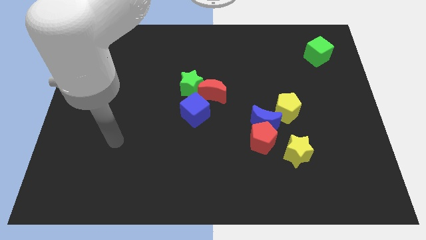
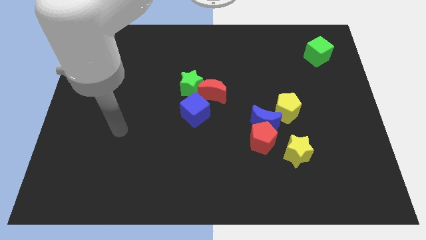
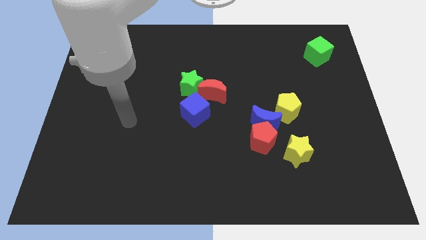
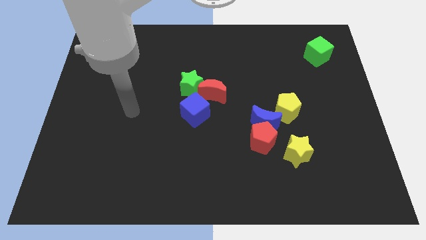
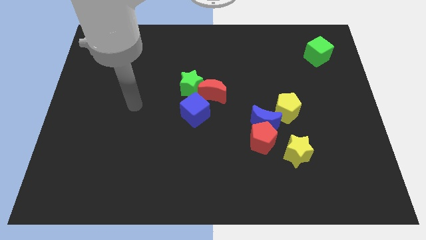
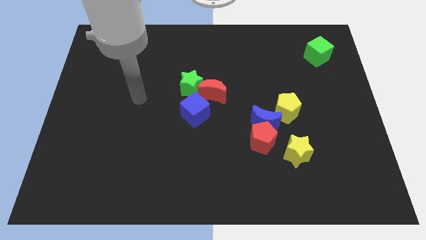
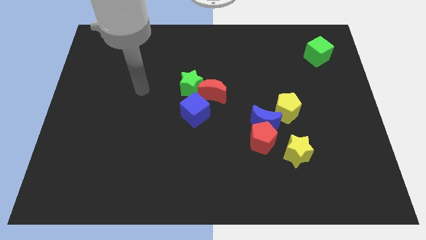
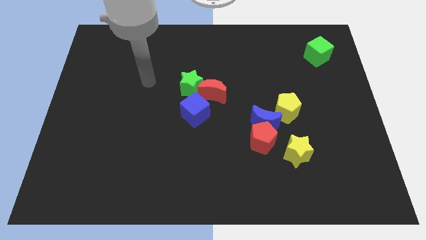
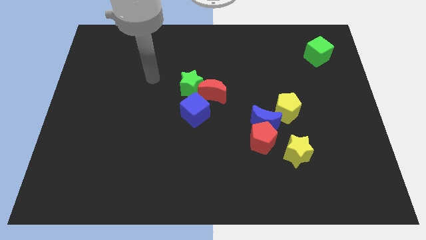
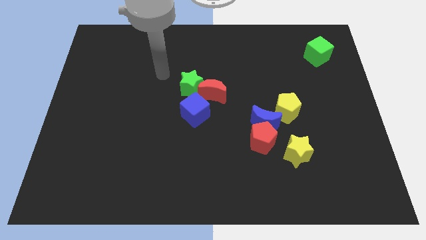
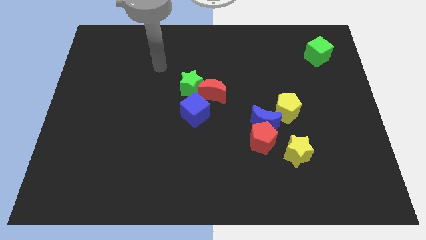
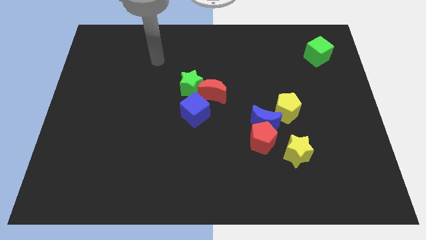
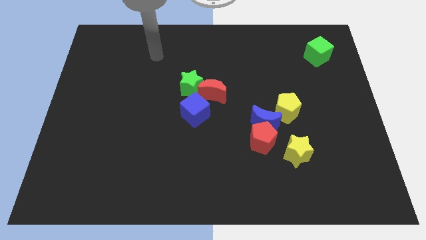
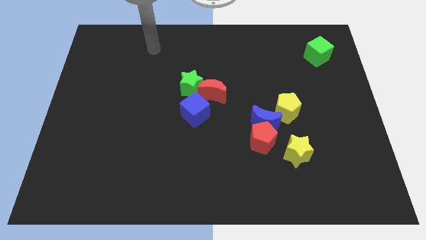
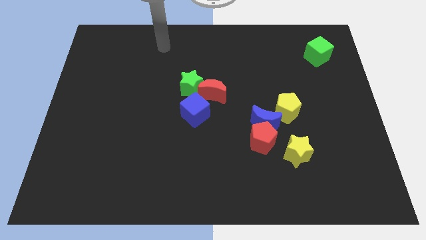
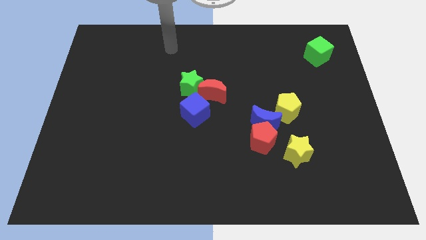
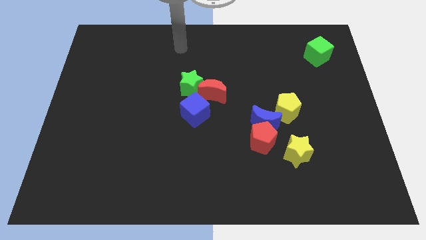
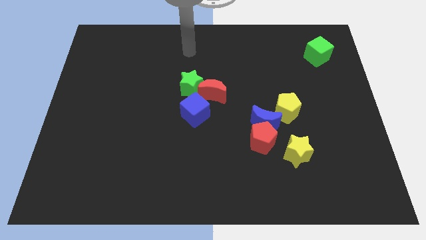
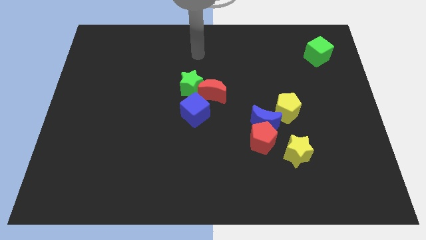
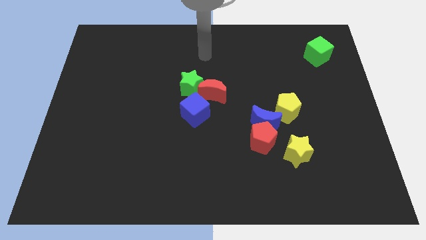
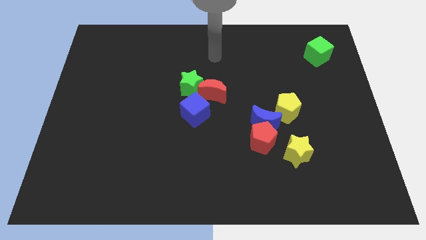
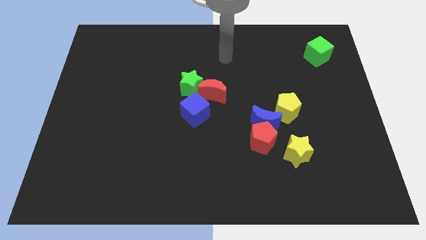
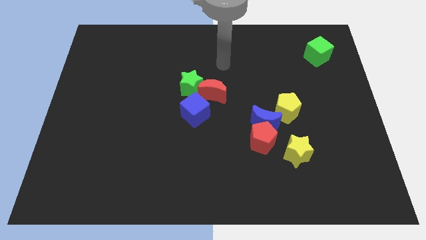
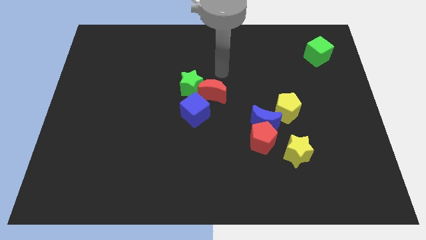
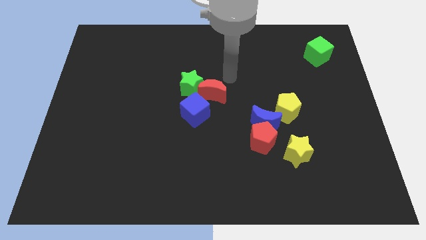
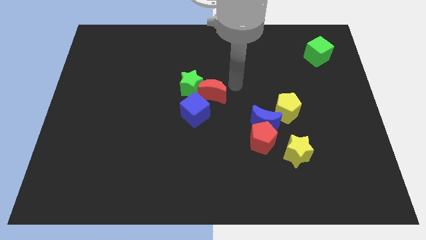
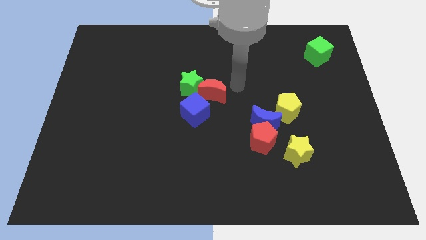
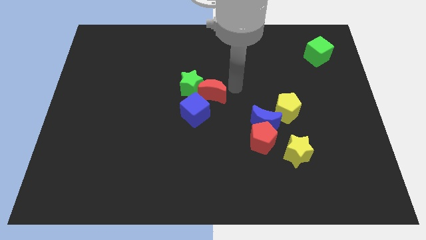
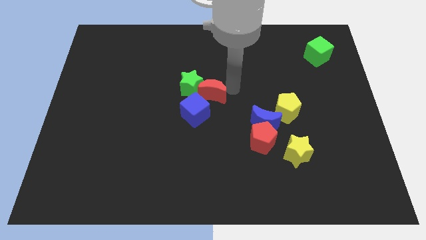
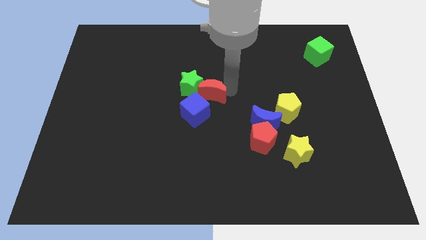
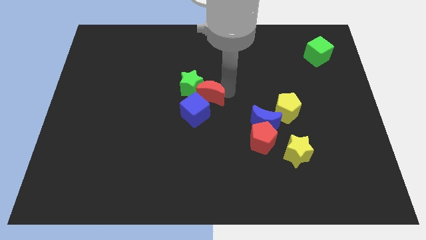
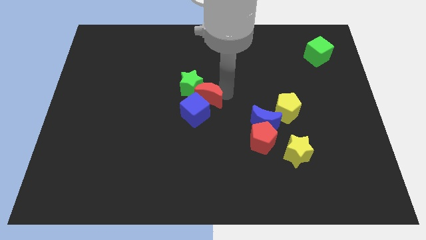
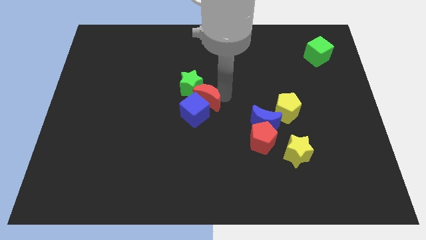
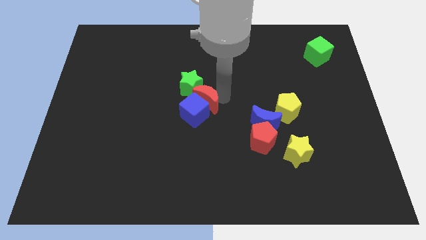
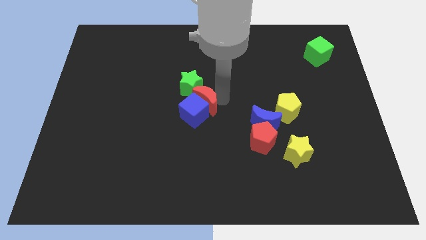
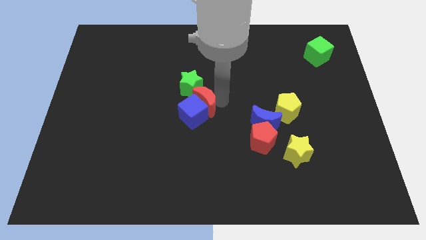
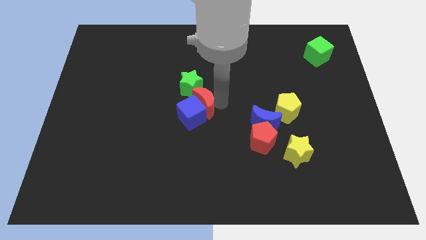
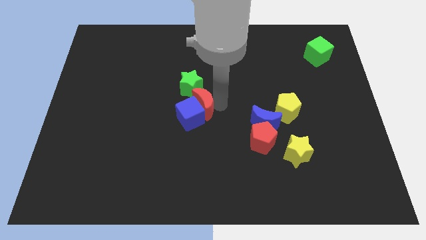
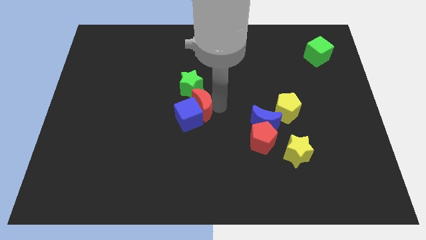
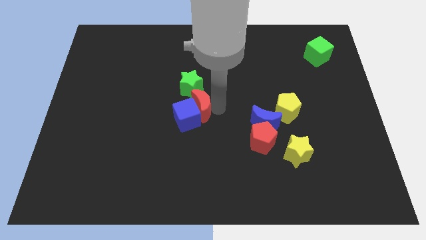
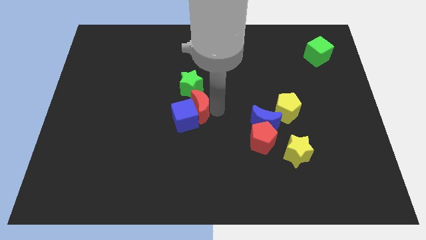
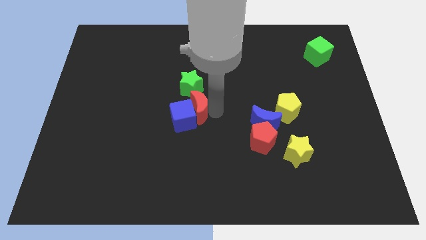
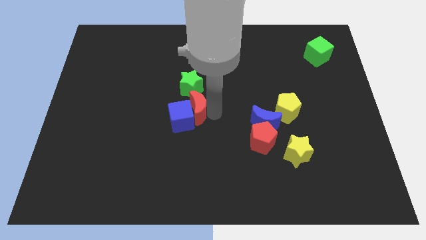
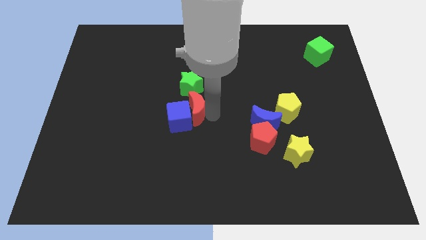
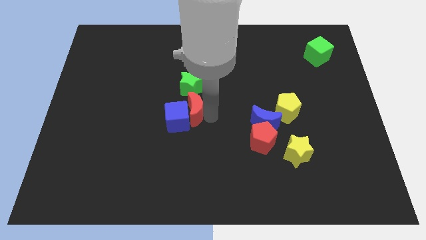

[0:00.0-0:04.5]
move the red moon slightly downwards and left

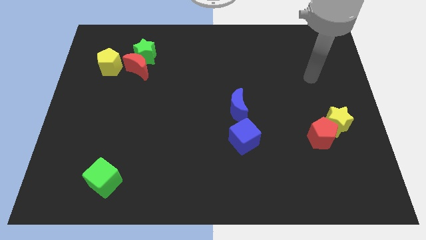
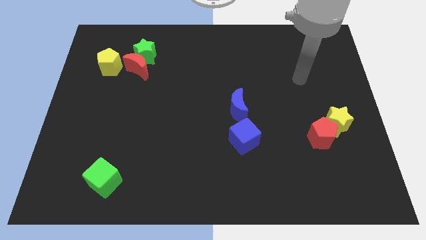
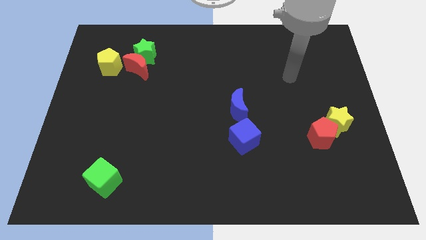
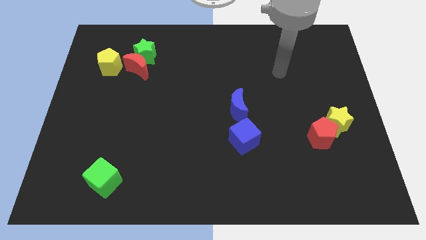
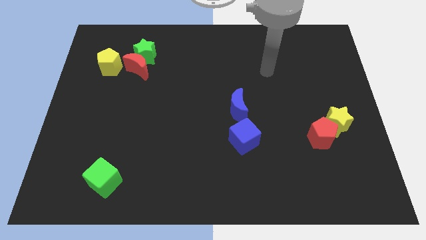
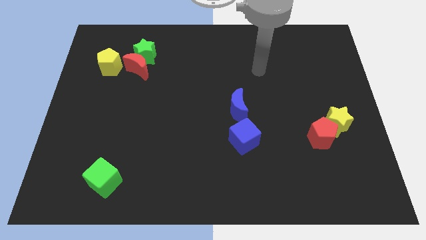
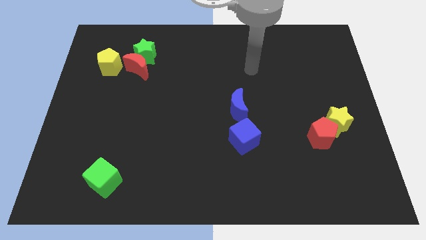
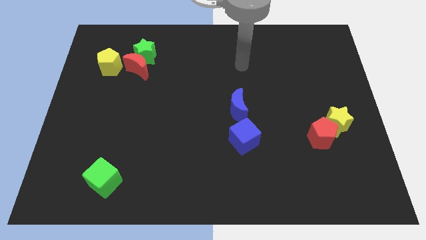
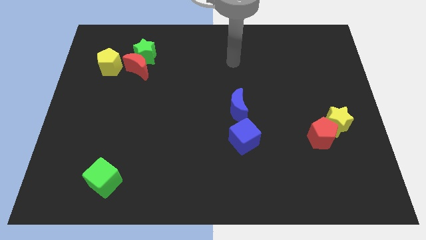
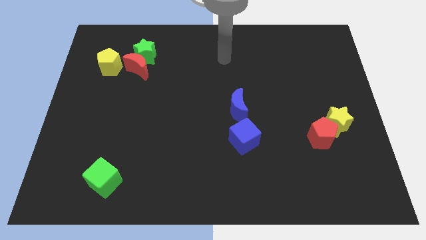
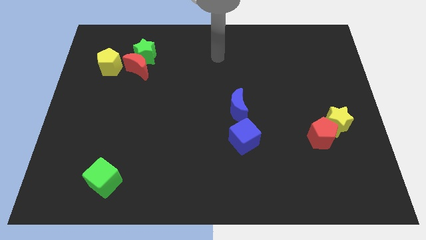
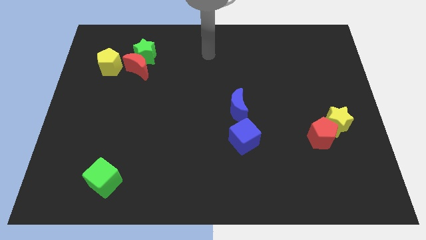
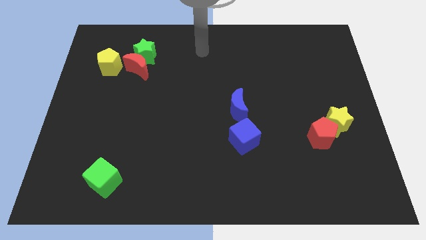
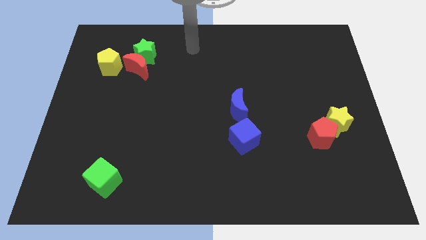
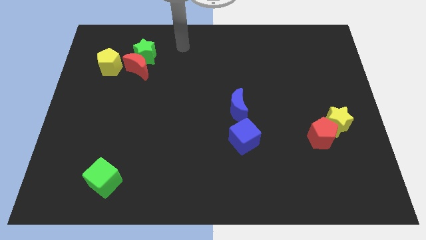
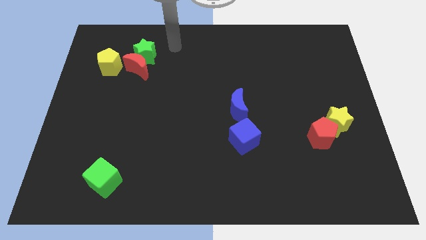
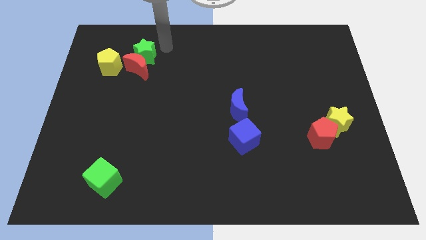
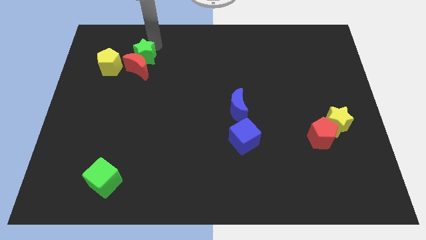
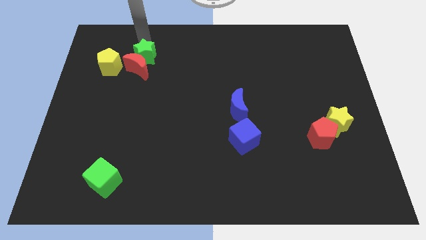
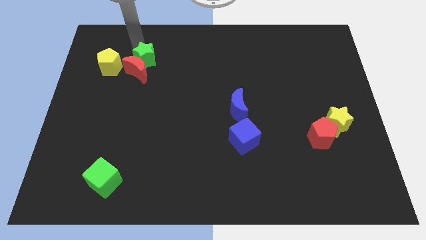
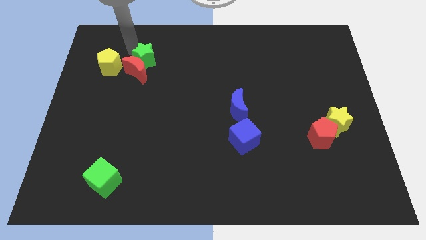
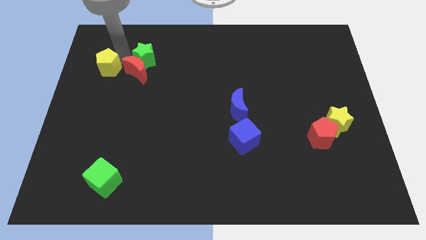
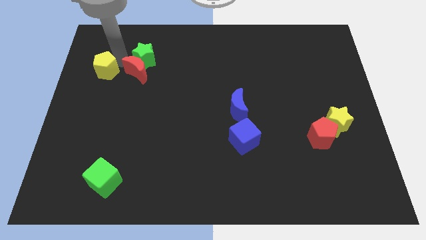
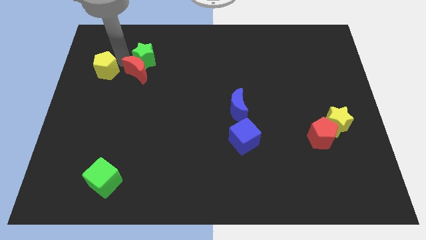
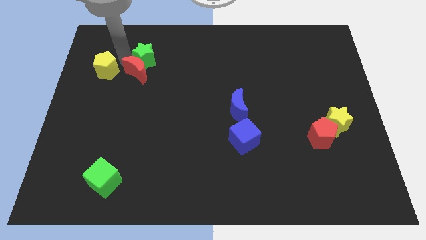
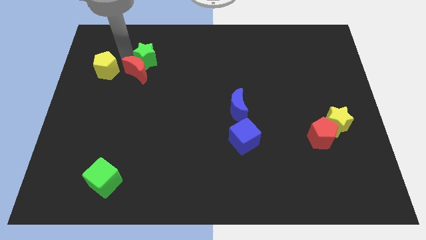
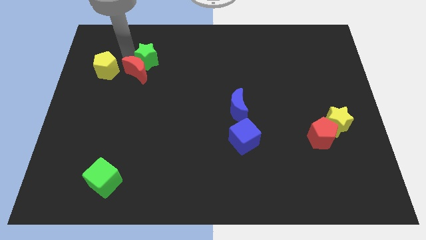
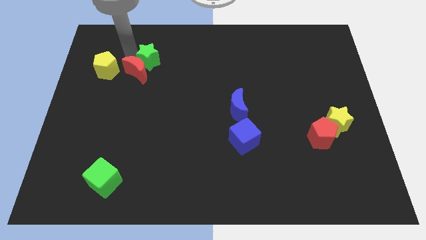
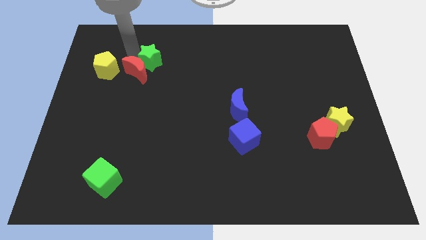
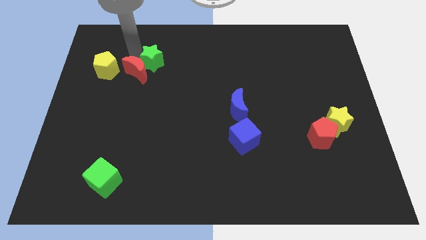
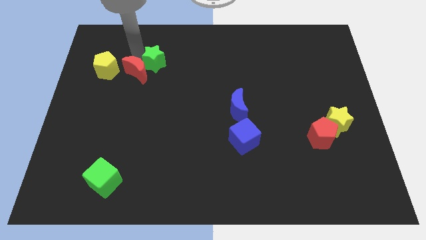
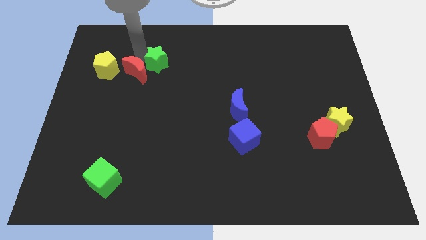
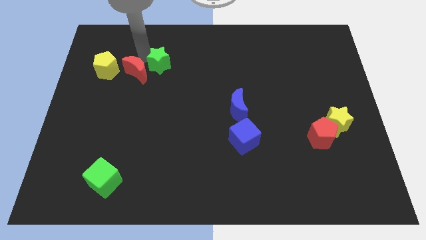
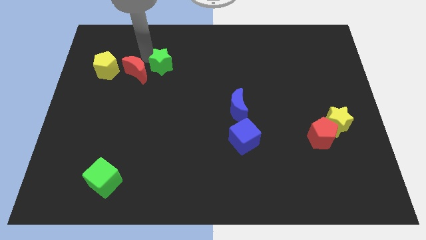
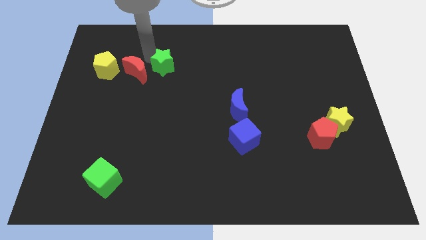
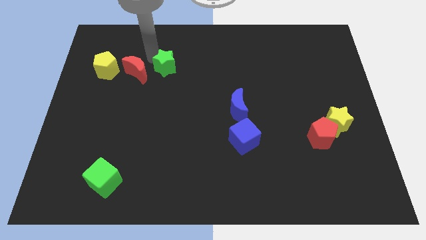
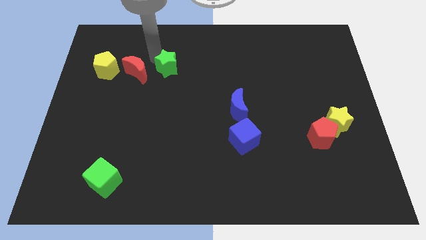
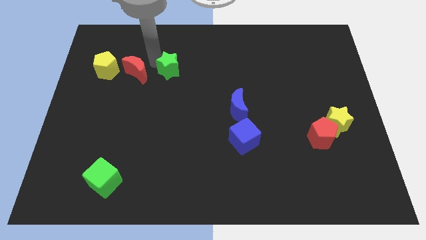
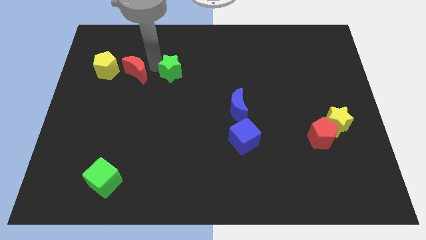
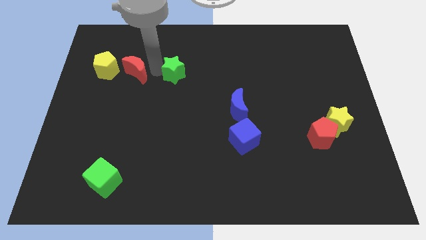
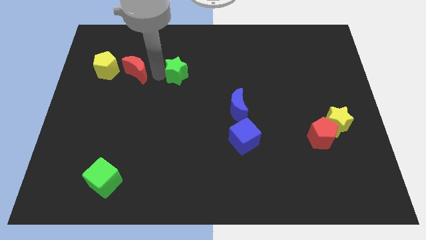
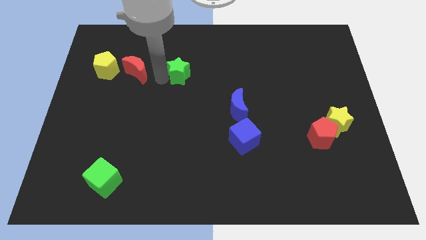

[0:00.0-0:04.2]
push the green star to the right a bit
